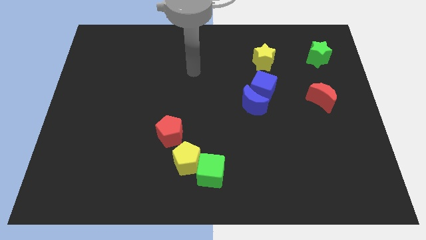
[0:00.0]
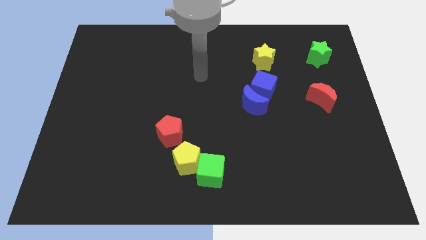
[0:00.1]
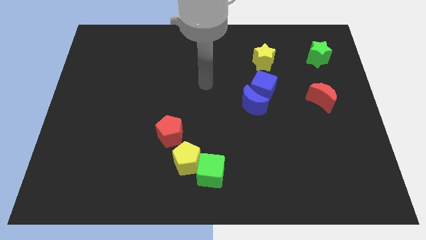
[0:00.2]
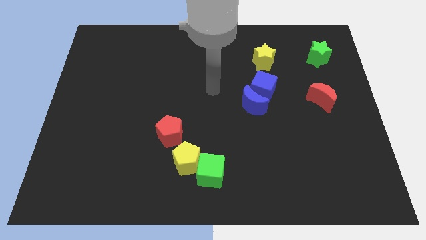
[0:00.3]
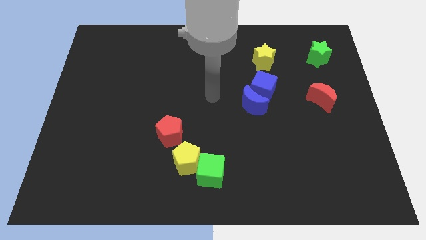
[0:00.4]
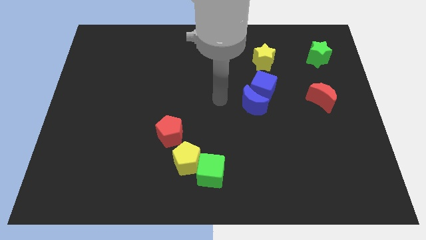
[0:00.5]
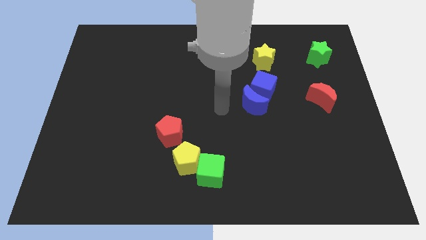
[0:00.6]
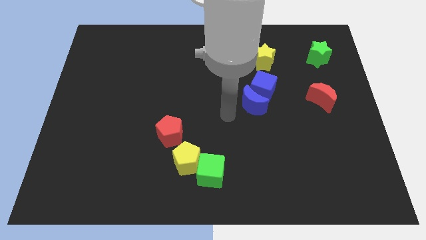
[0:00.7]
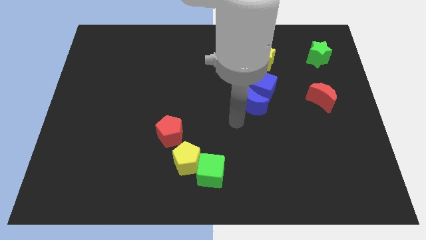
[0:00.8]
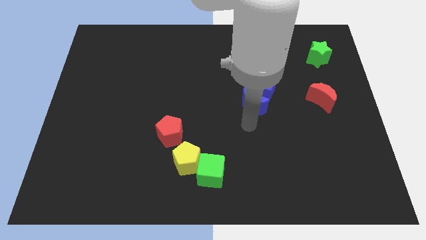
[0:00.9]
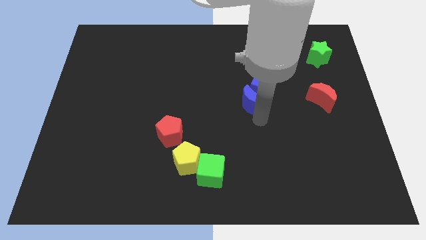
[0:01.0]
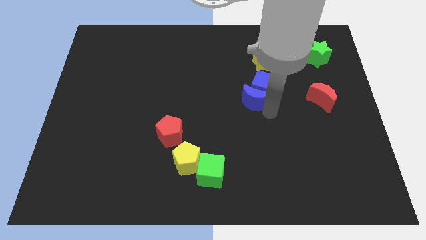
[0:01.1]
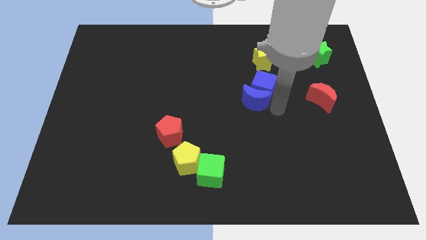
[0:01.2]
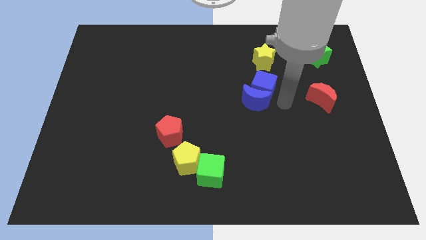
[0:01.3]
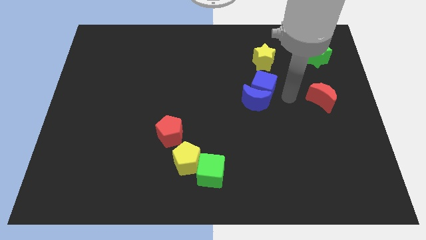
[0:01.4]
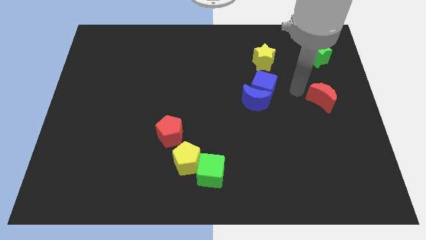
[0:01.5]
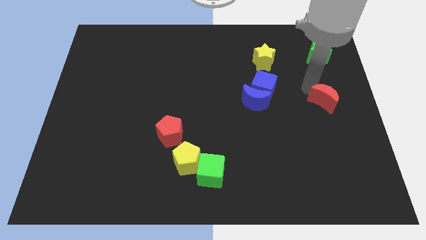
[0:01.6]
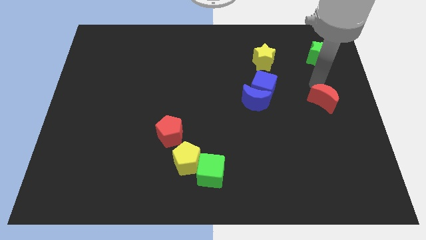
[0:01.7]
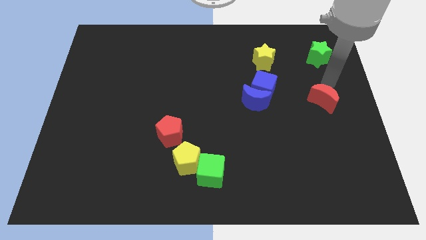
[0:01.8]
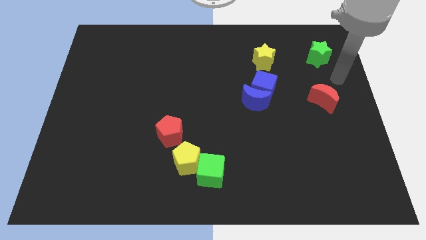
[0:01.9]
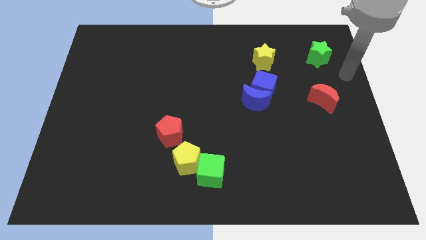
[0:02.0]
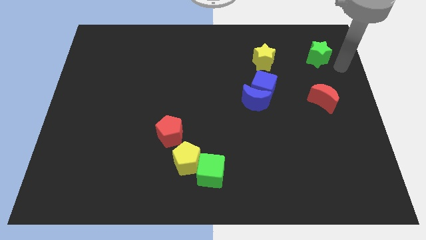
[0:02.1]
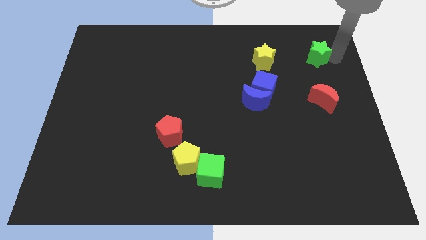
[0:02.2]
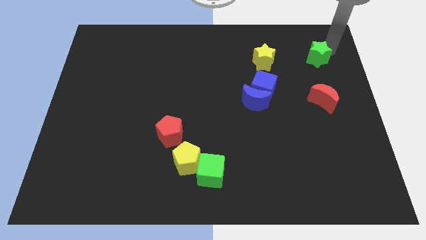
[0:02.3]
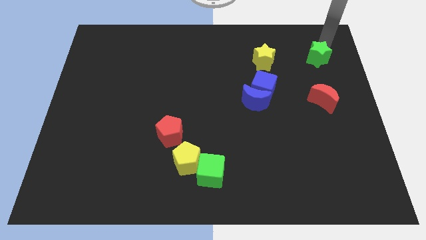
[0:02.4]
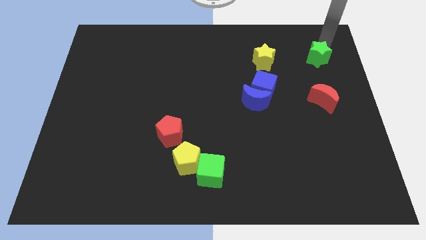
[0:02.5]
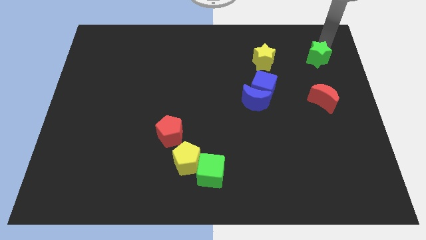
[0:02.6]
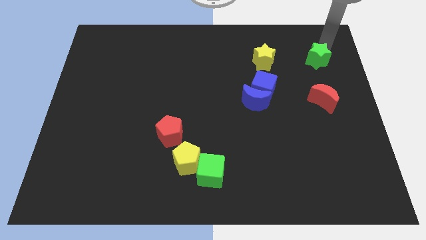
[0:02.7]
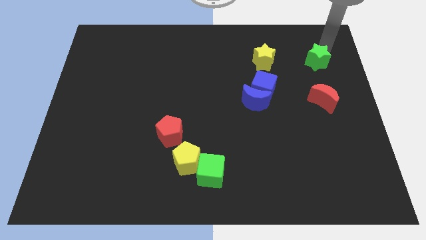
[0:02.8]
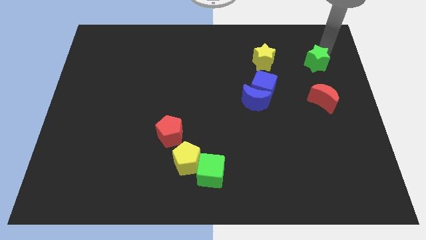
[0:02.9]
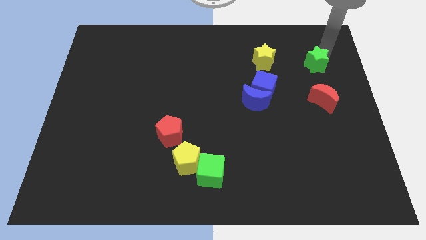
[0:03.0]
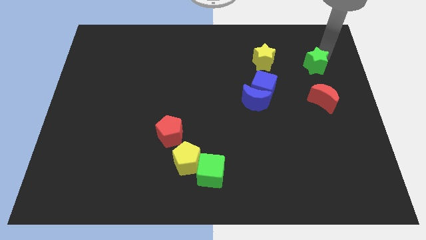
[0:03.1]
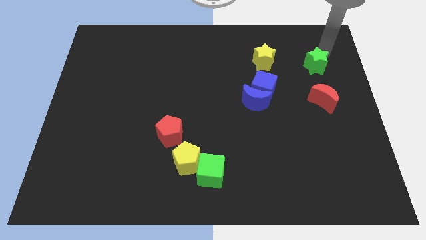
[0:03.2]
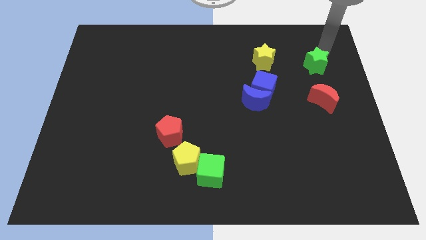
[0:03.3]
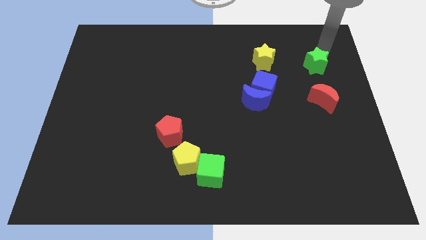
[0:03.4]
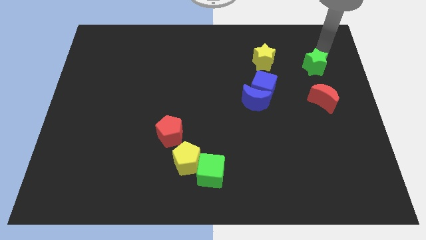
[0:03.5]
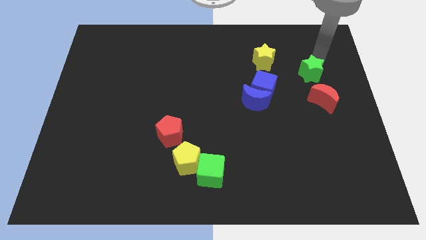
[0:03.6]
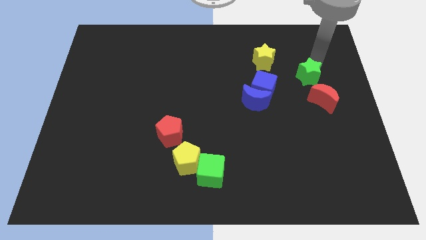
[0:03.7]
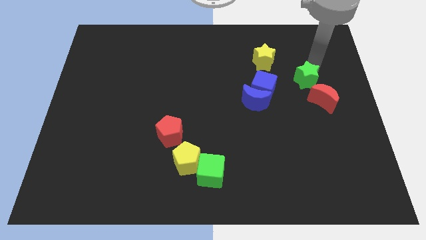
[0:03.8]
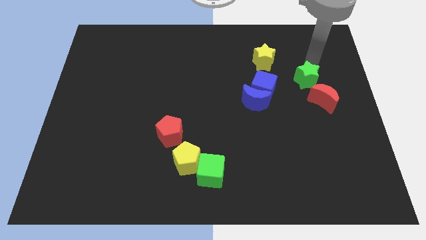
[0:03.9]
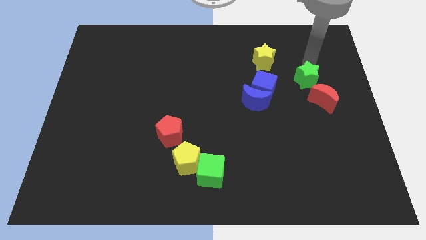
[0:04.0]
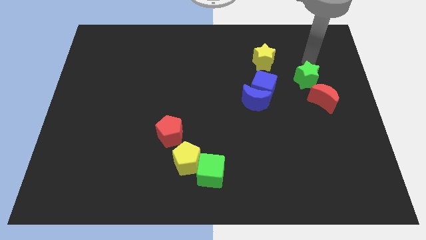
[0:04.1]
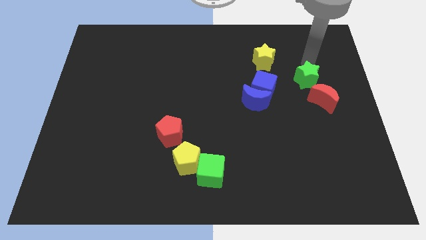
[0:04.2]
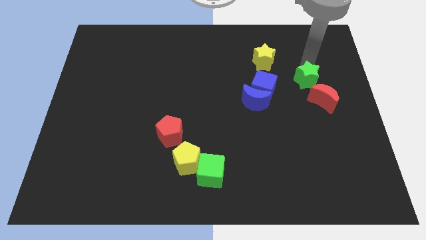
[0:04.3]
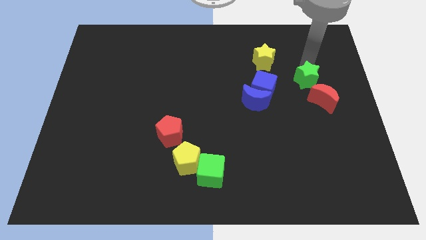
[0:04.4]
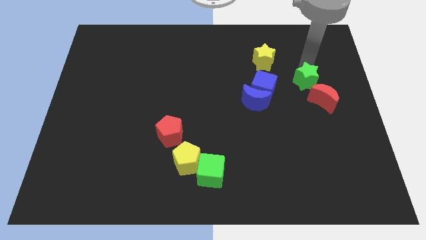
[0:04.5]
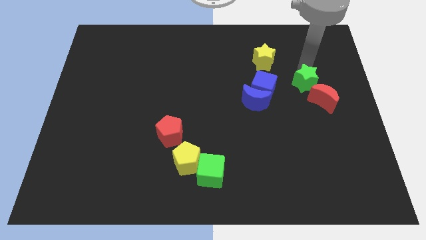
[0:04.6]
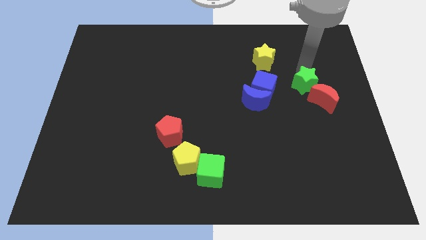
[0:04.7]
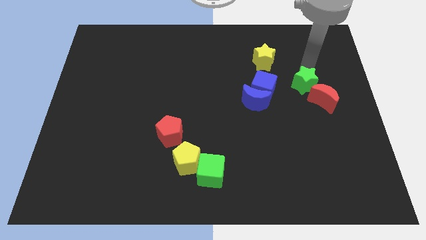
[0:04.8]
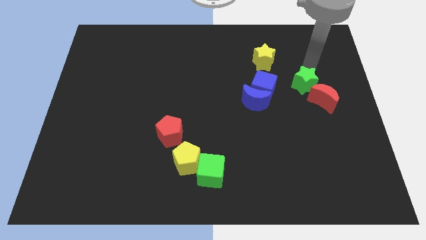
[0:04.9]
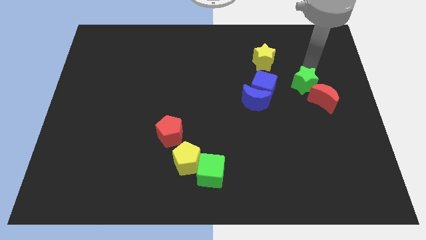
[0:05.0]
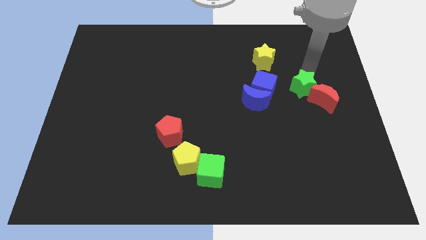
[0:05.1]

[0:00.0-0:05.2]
push the green star to the right of the blue moon

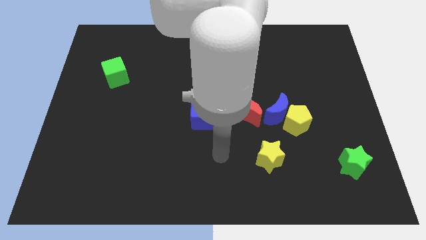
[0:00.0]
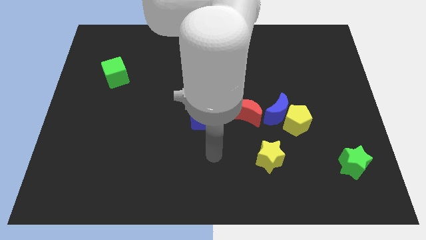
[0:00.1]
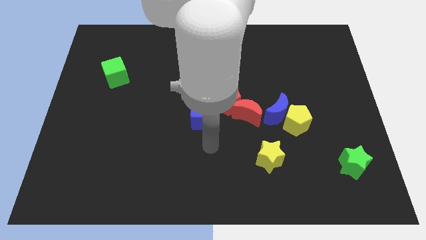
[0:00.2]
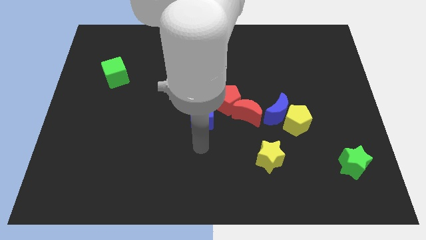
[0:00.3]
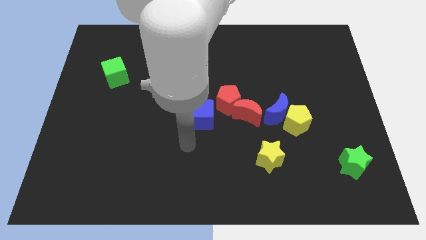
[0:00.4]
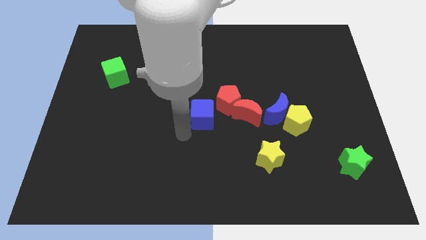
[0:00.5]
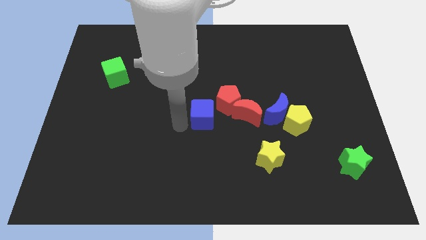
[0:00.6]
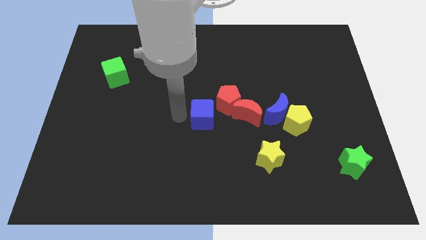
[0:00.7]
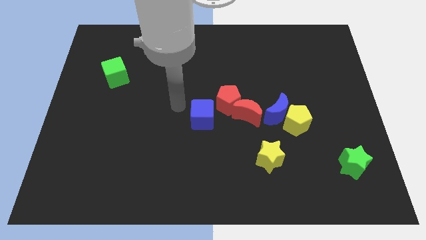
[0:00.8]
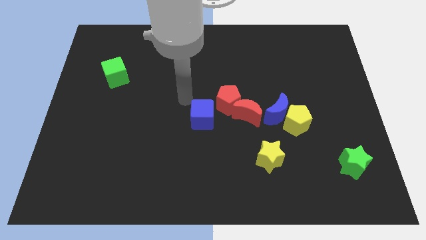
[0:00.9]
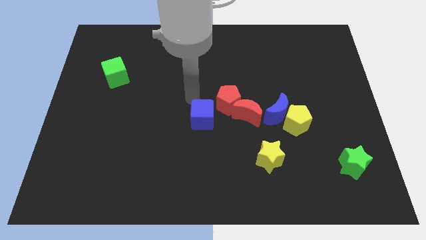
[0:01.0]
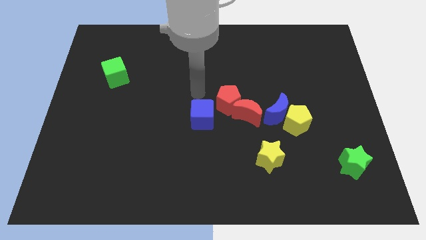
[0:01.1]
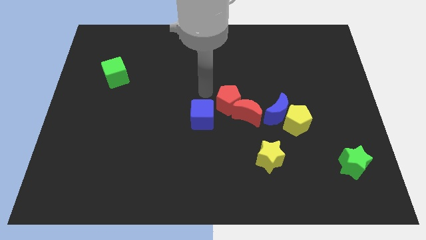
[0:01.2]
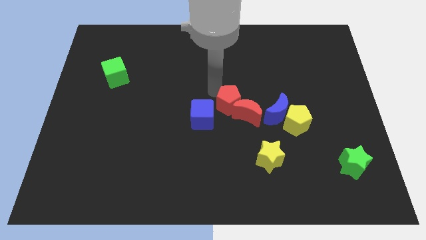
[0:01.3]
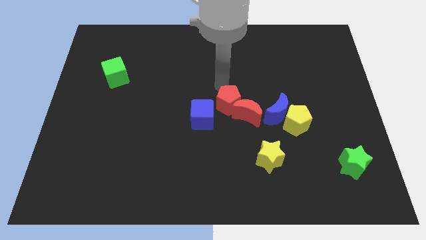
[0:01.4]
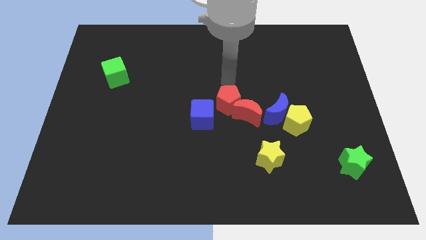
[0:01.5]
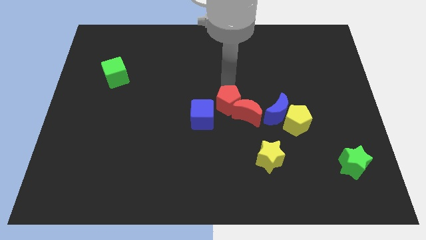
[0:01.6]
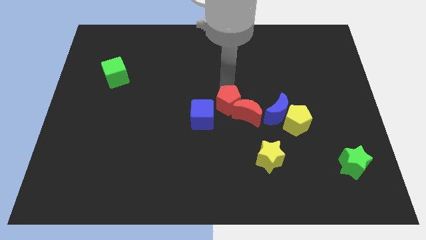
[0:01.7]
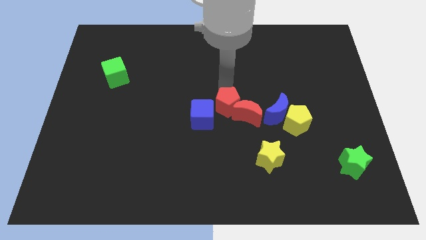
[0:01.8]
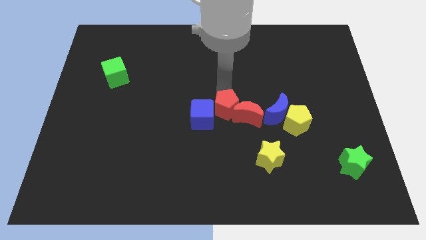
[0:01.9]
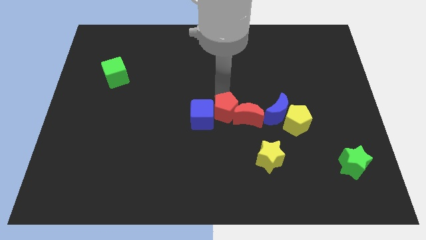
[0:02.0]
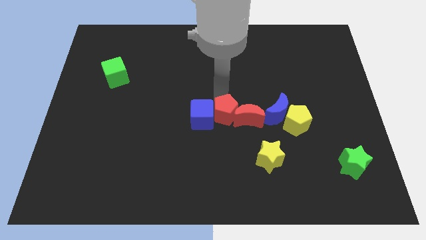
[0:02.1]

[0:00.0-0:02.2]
move the red pentagon diagonally down and to the left of the red moon
